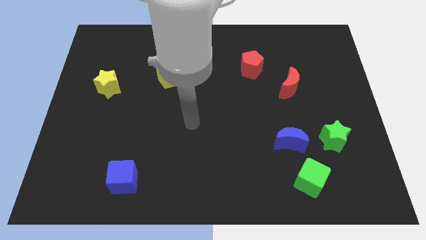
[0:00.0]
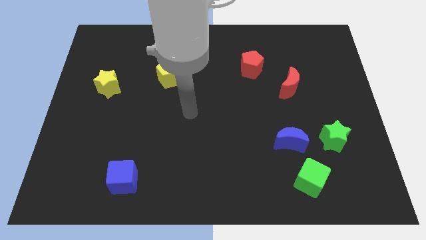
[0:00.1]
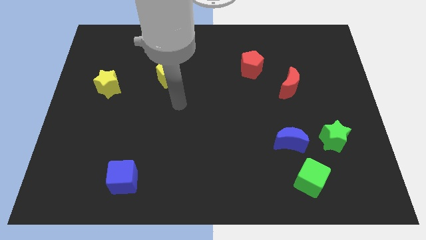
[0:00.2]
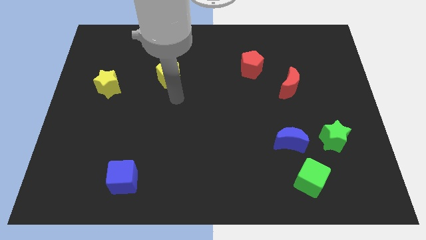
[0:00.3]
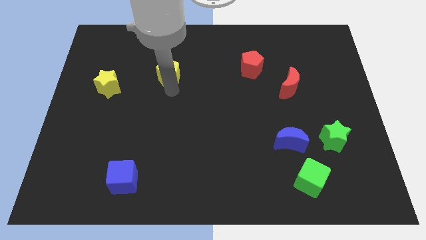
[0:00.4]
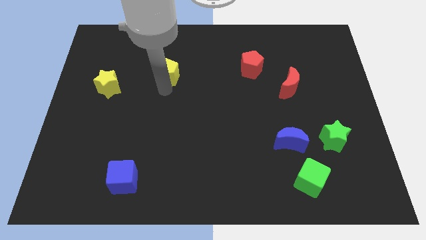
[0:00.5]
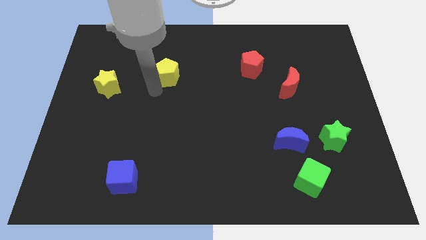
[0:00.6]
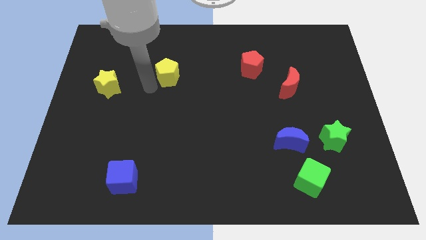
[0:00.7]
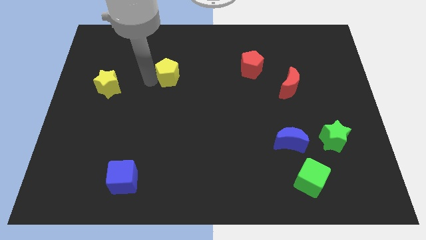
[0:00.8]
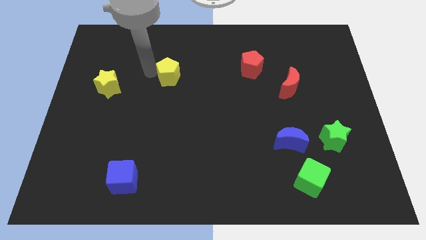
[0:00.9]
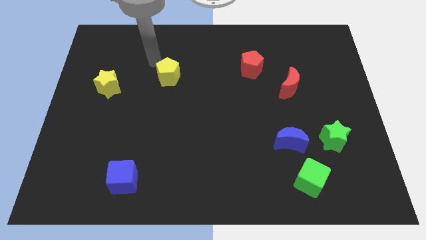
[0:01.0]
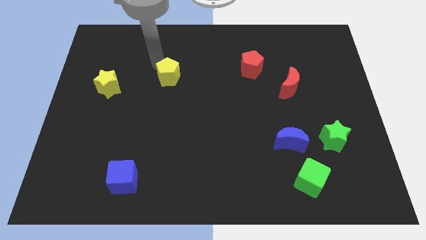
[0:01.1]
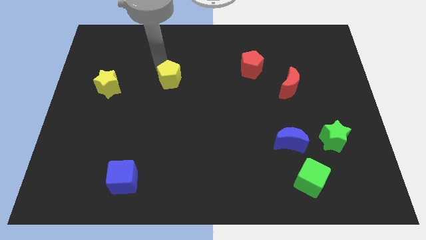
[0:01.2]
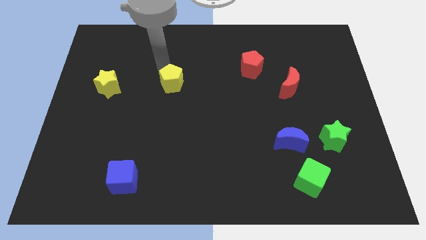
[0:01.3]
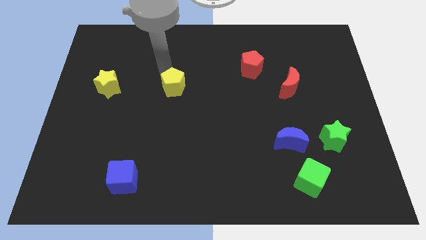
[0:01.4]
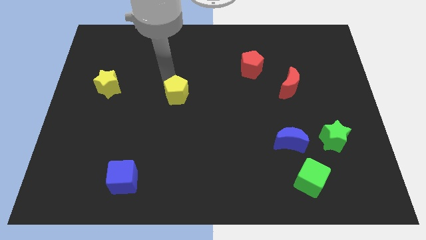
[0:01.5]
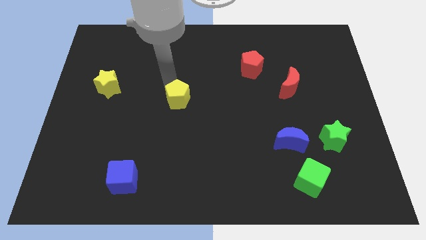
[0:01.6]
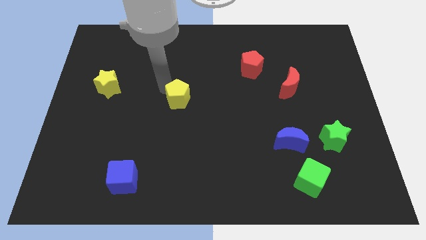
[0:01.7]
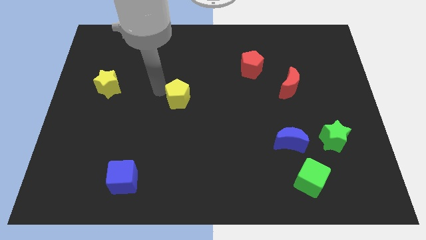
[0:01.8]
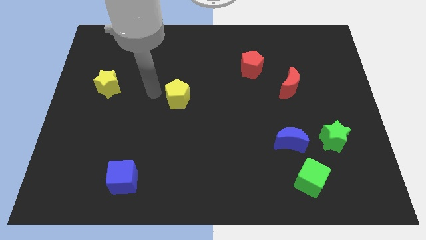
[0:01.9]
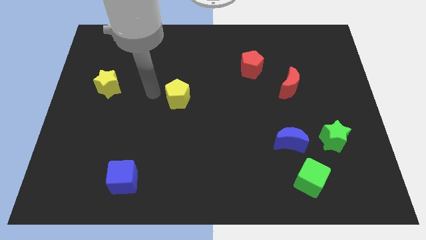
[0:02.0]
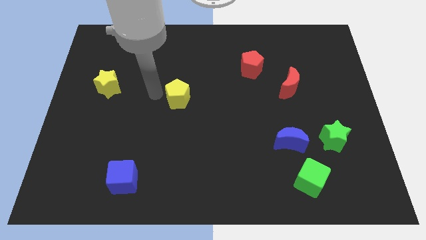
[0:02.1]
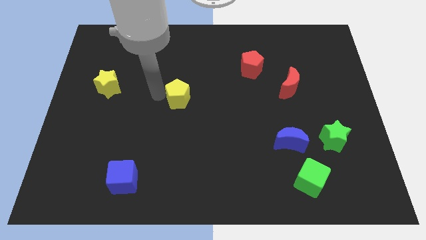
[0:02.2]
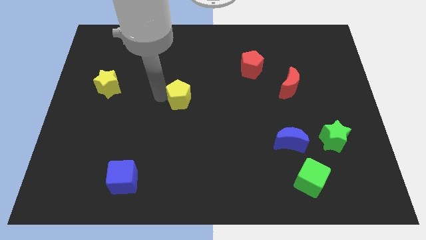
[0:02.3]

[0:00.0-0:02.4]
move the yellow pentagon diagonally down and to the right a bit

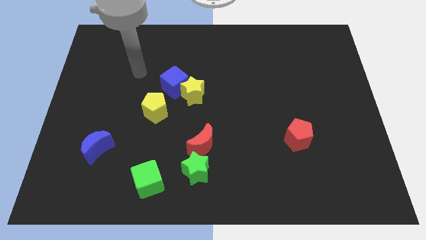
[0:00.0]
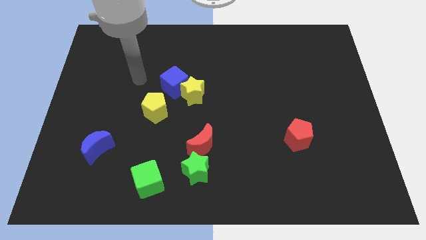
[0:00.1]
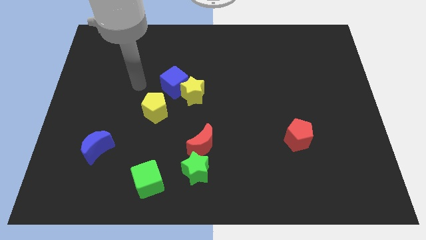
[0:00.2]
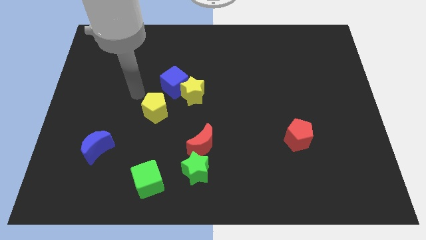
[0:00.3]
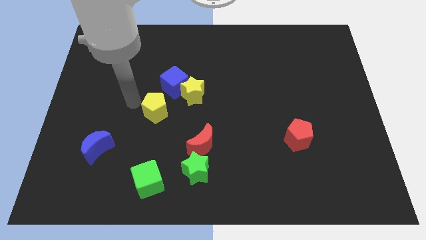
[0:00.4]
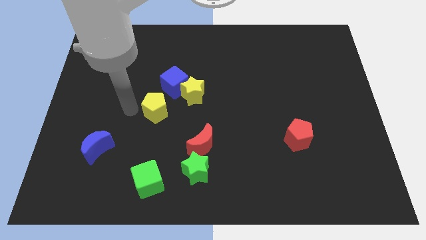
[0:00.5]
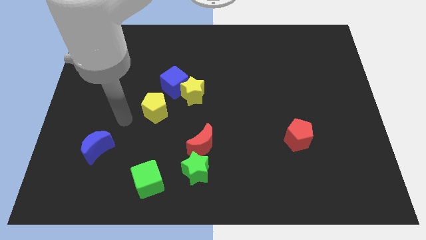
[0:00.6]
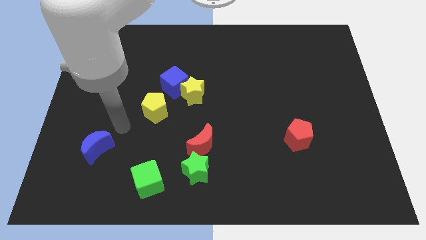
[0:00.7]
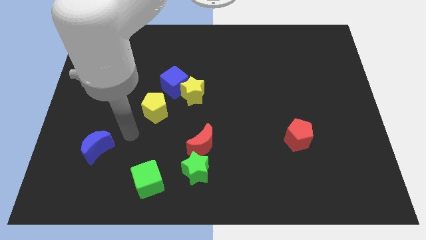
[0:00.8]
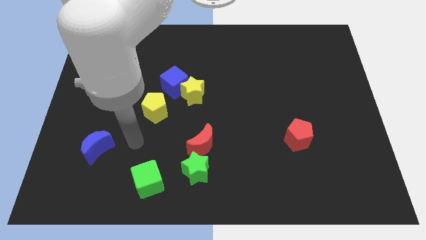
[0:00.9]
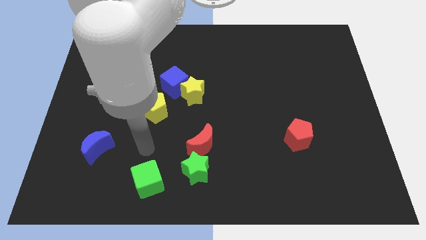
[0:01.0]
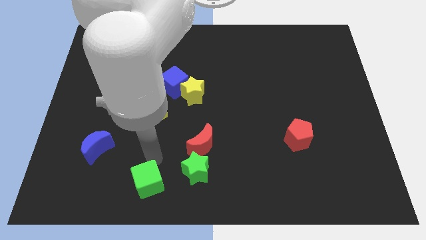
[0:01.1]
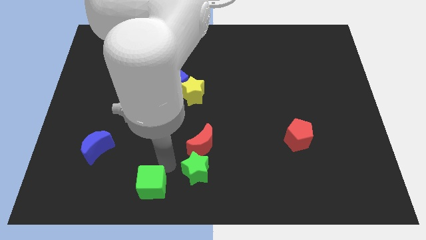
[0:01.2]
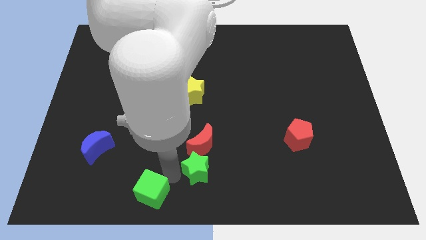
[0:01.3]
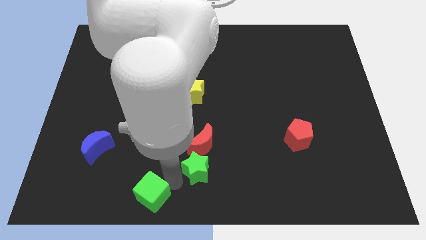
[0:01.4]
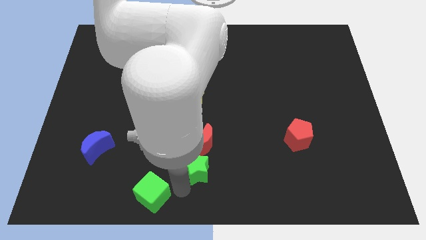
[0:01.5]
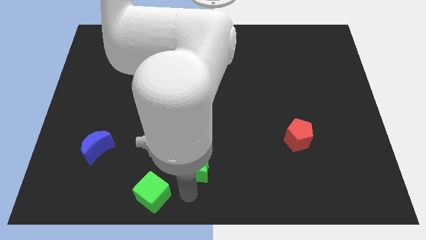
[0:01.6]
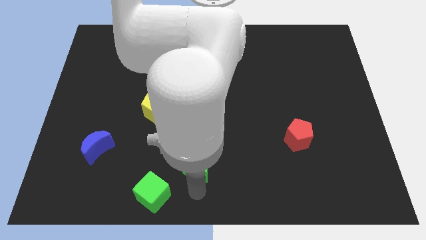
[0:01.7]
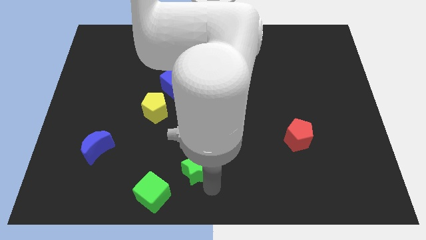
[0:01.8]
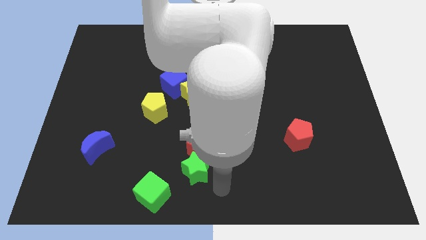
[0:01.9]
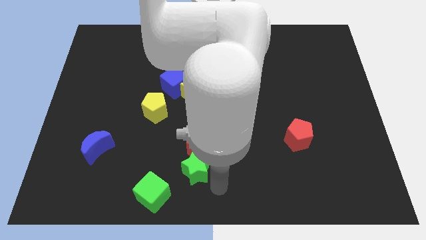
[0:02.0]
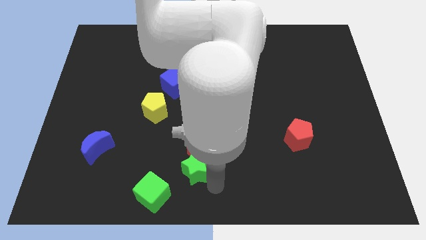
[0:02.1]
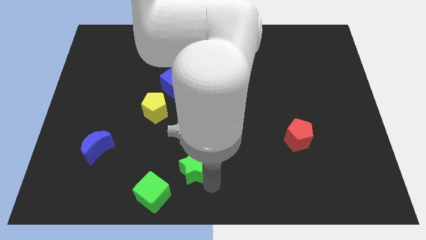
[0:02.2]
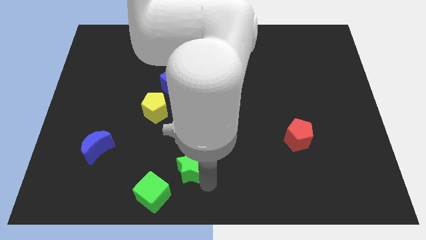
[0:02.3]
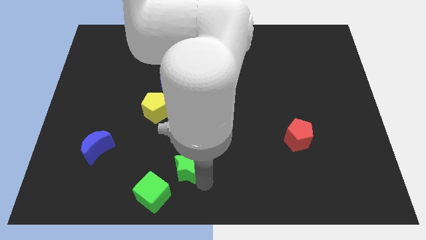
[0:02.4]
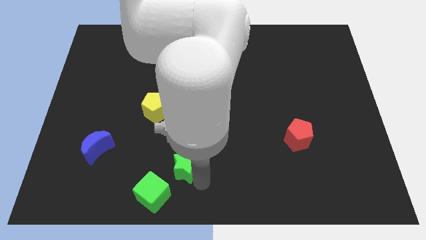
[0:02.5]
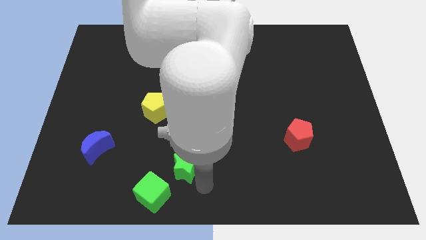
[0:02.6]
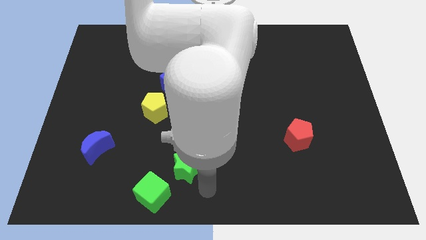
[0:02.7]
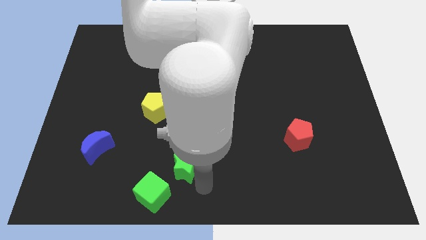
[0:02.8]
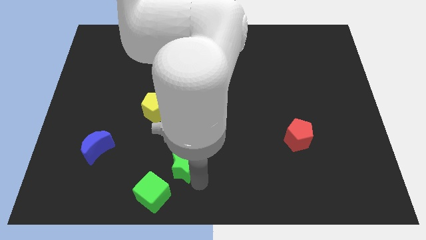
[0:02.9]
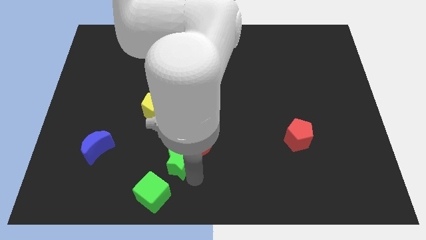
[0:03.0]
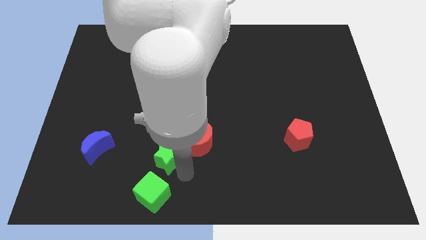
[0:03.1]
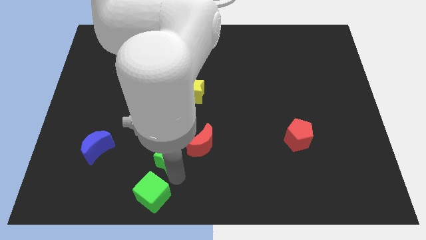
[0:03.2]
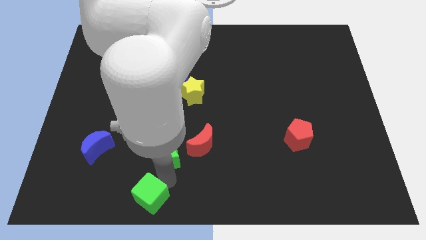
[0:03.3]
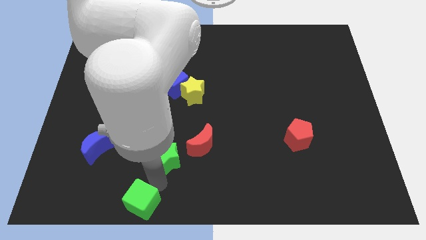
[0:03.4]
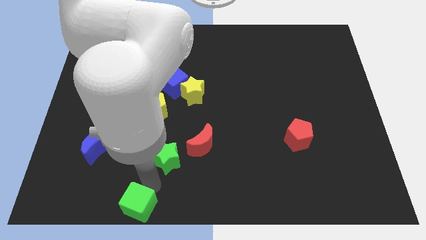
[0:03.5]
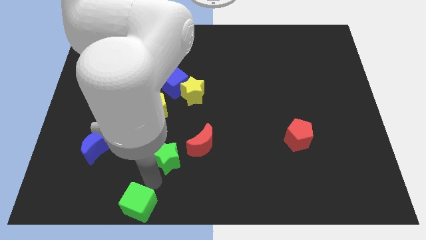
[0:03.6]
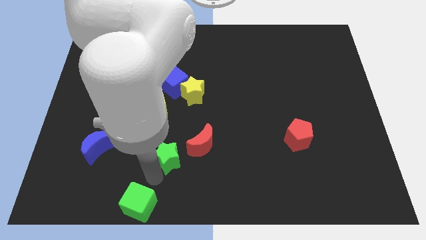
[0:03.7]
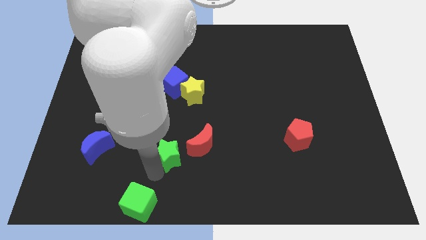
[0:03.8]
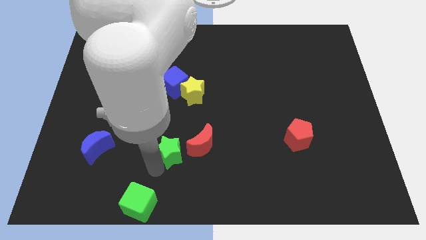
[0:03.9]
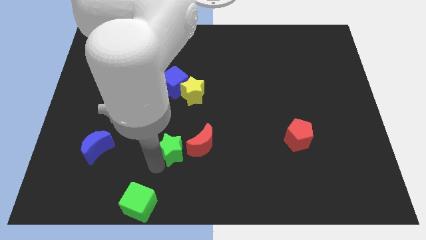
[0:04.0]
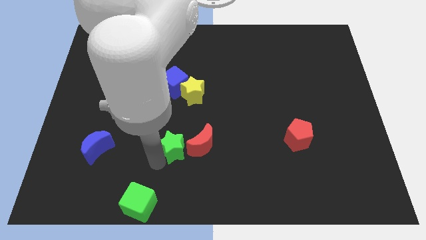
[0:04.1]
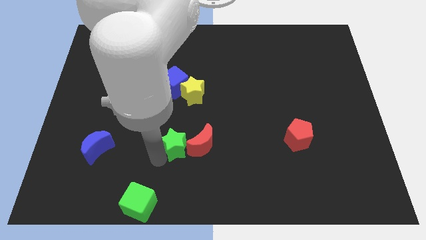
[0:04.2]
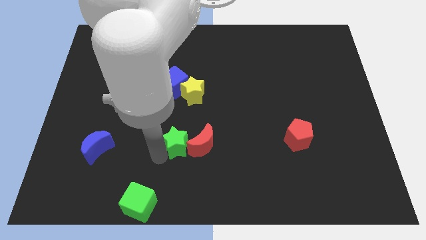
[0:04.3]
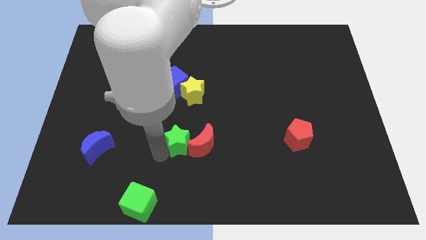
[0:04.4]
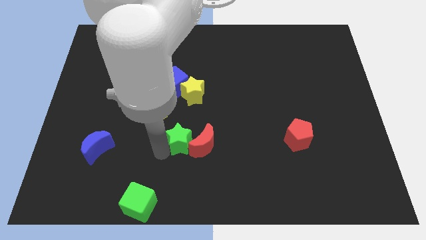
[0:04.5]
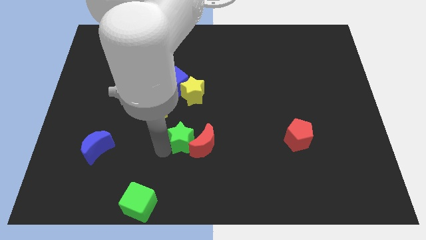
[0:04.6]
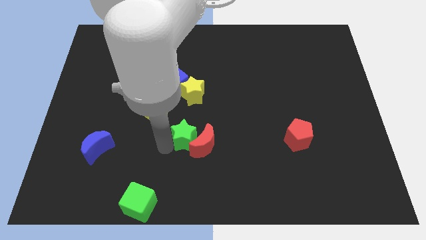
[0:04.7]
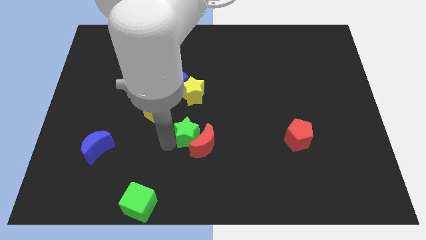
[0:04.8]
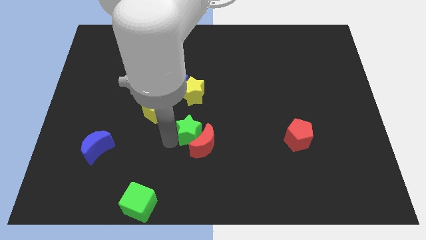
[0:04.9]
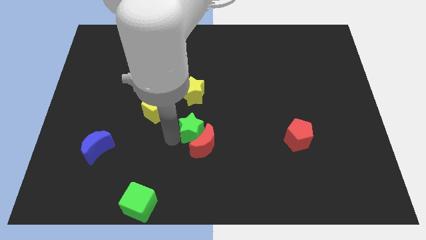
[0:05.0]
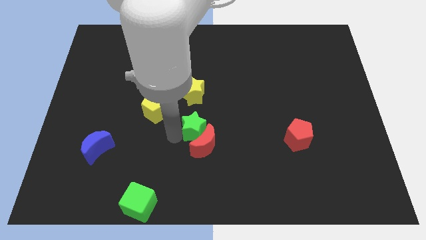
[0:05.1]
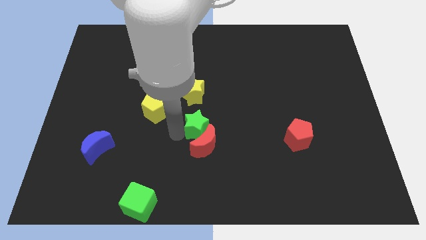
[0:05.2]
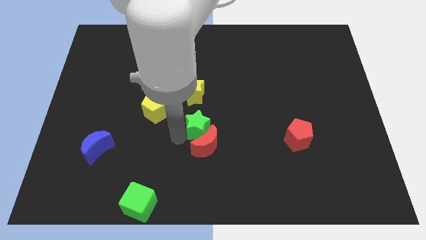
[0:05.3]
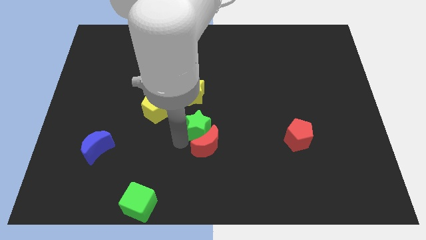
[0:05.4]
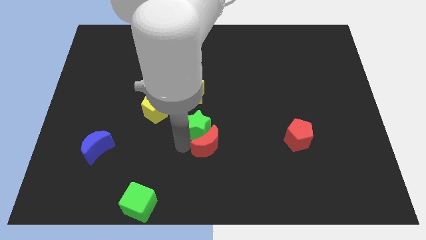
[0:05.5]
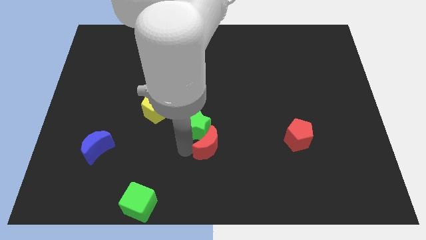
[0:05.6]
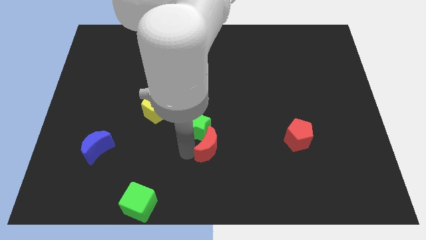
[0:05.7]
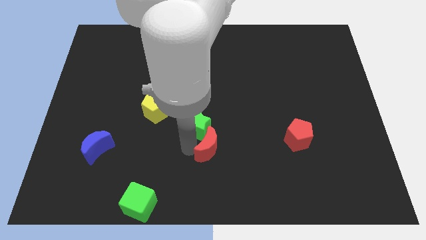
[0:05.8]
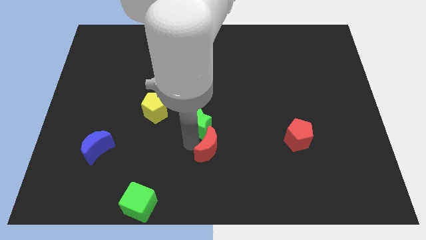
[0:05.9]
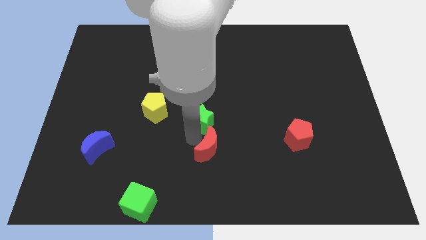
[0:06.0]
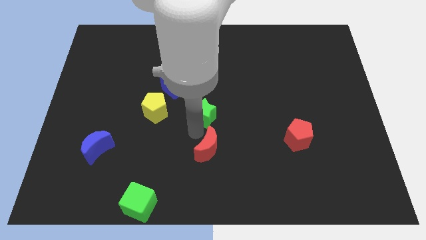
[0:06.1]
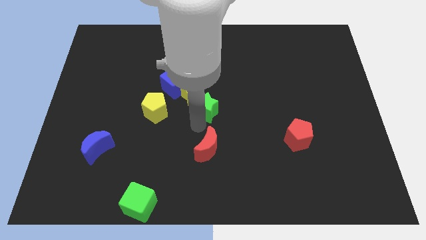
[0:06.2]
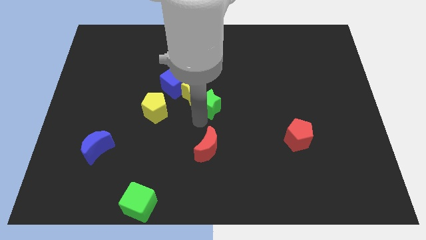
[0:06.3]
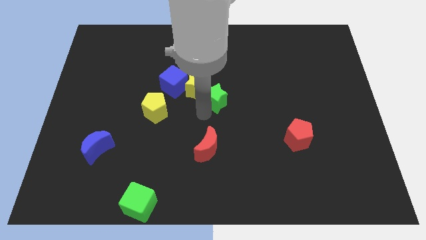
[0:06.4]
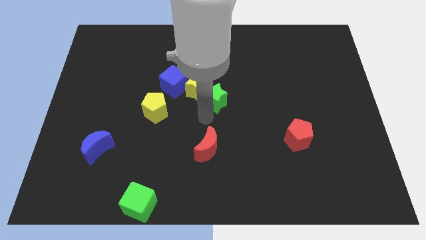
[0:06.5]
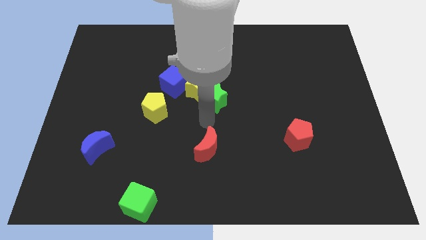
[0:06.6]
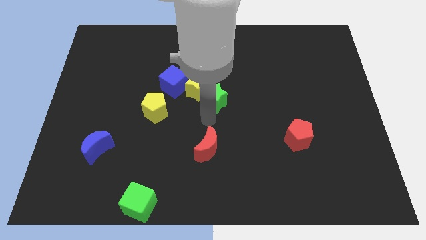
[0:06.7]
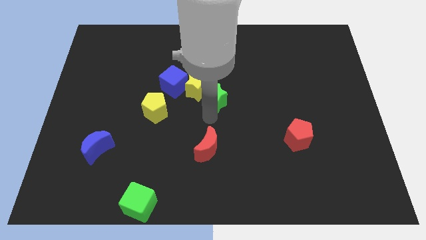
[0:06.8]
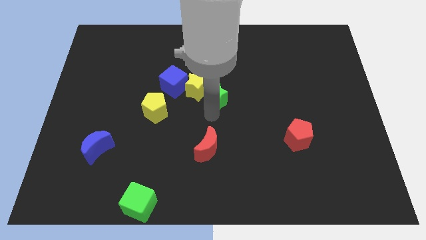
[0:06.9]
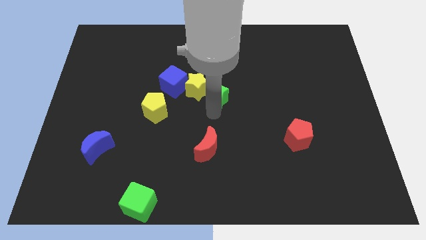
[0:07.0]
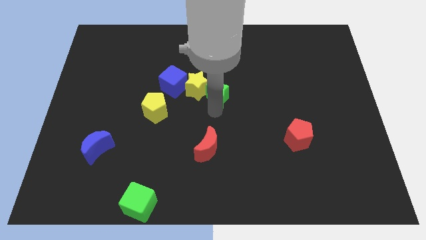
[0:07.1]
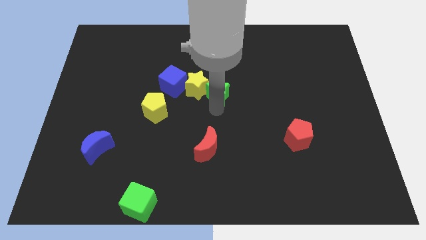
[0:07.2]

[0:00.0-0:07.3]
slide the green star upwards
